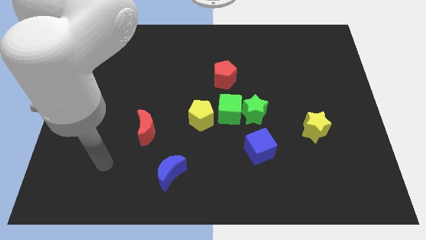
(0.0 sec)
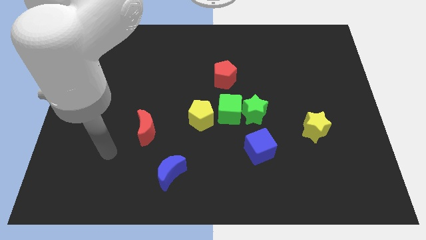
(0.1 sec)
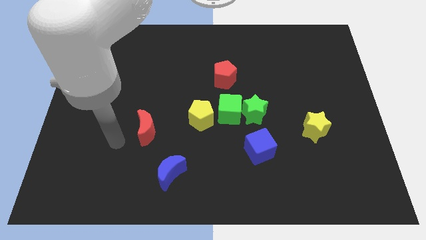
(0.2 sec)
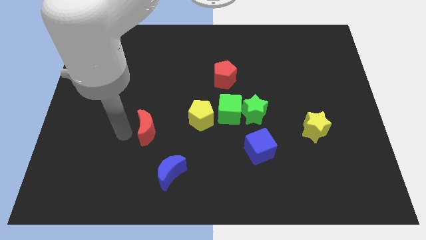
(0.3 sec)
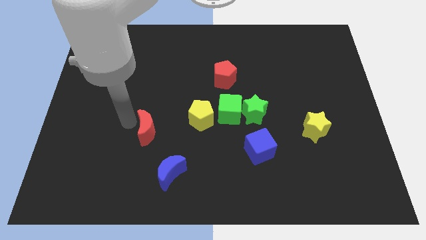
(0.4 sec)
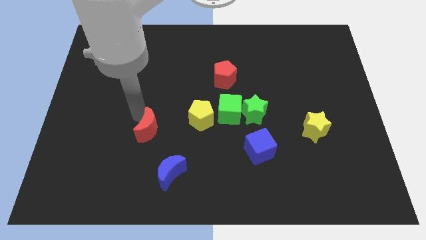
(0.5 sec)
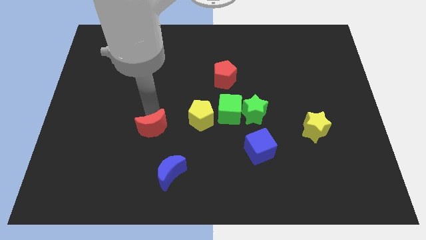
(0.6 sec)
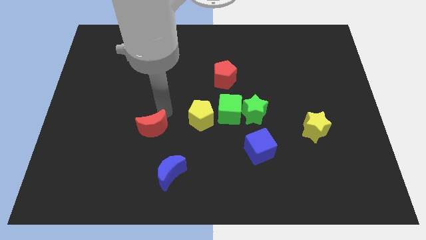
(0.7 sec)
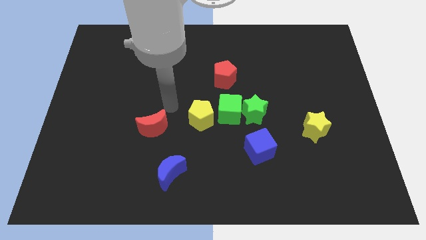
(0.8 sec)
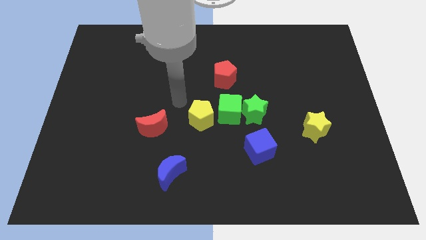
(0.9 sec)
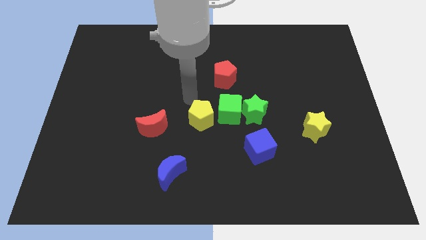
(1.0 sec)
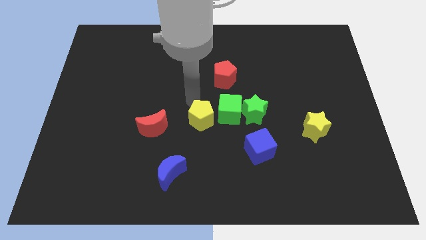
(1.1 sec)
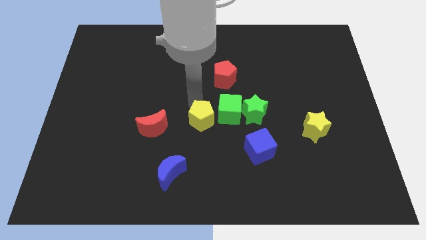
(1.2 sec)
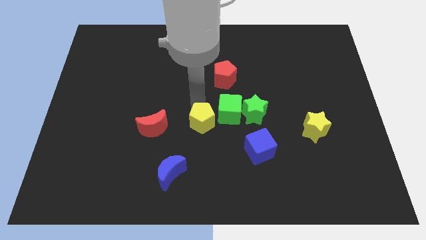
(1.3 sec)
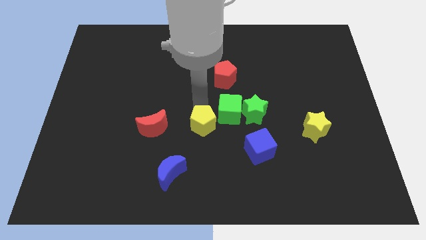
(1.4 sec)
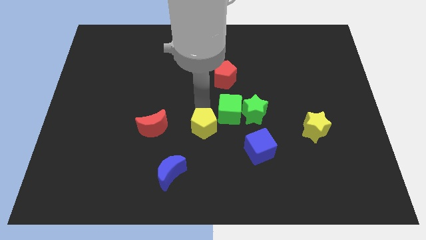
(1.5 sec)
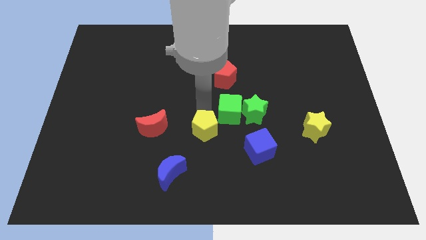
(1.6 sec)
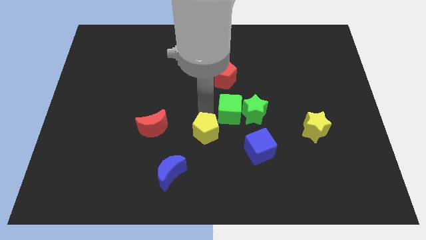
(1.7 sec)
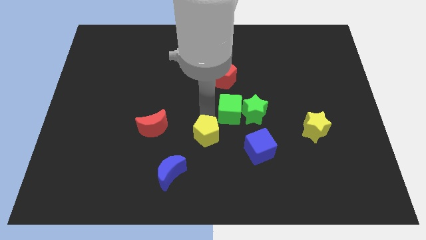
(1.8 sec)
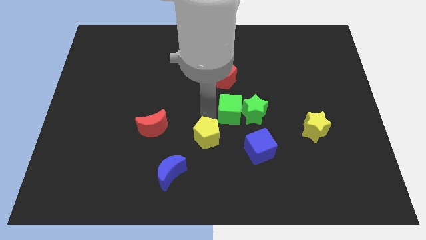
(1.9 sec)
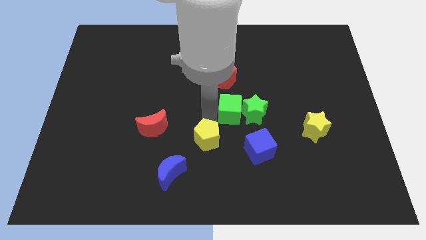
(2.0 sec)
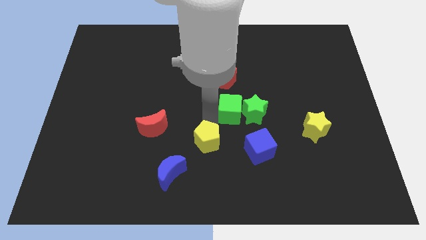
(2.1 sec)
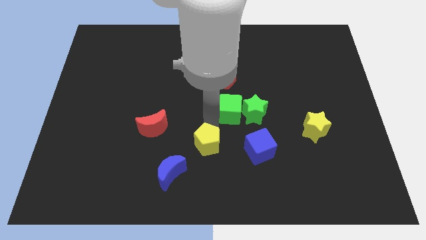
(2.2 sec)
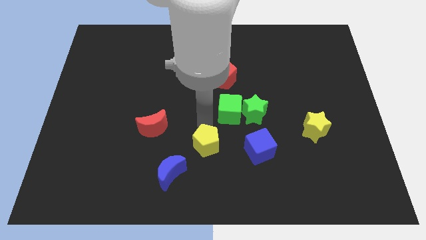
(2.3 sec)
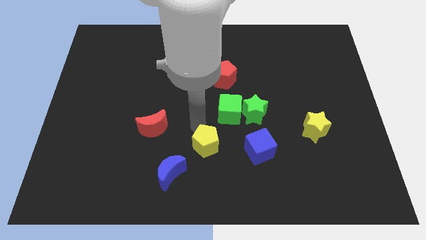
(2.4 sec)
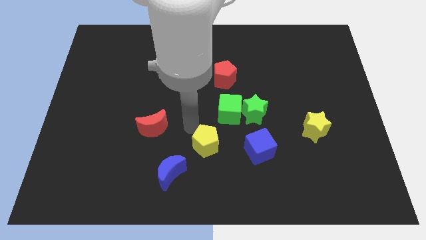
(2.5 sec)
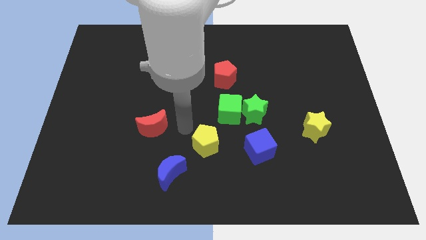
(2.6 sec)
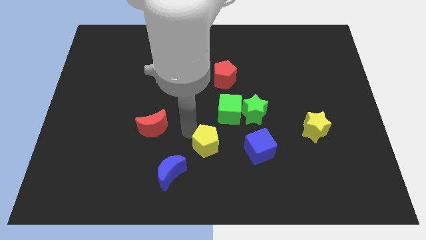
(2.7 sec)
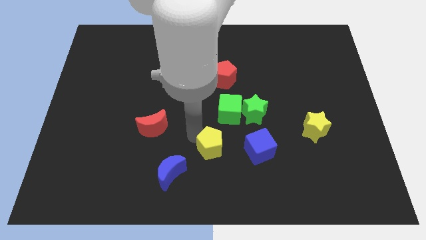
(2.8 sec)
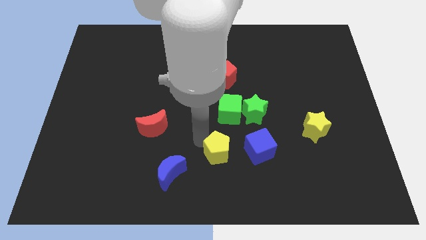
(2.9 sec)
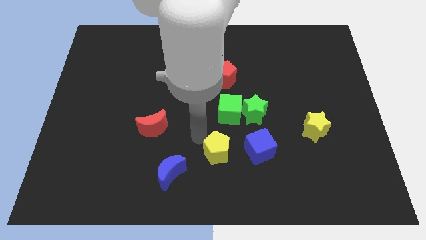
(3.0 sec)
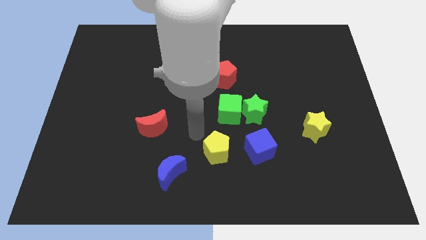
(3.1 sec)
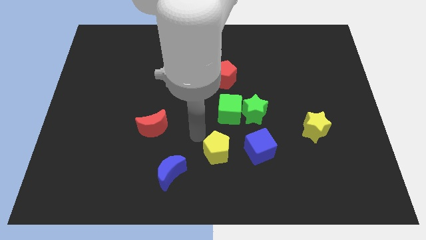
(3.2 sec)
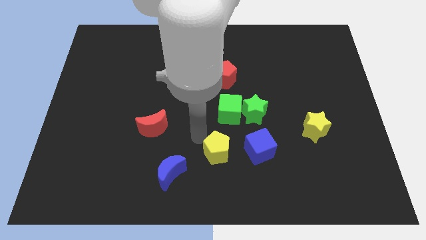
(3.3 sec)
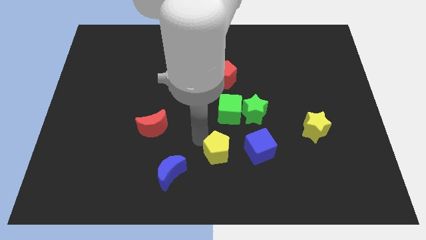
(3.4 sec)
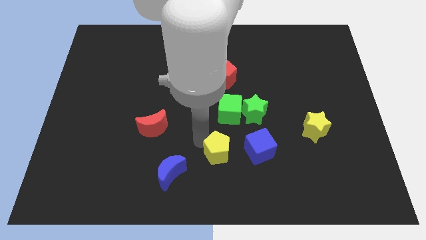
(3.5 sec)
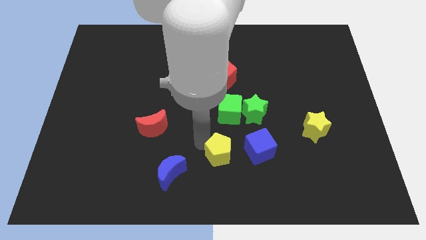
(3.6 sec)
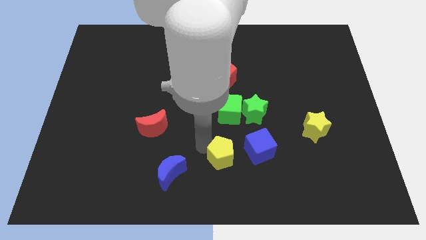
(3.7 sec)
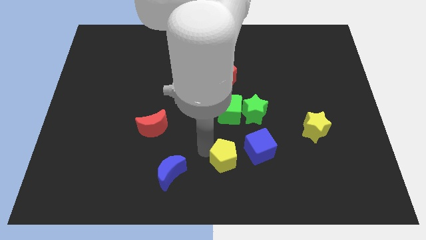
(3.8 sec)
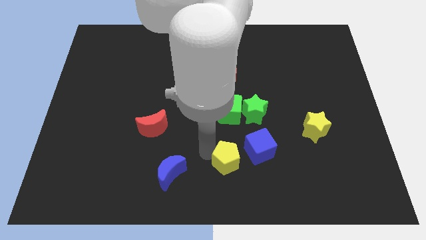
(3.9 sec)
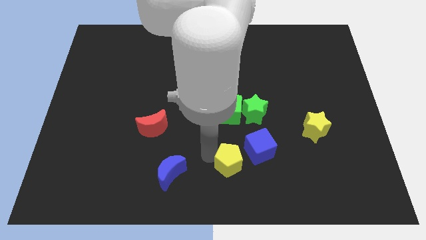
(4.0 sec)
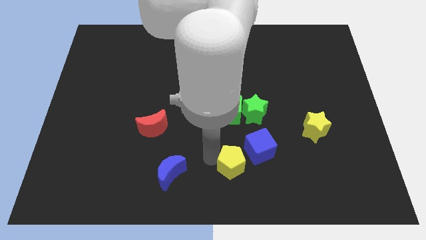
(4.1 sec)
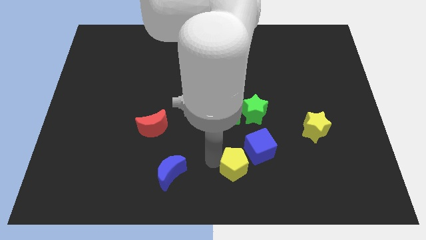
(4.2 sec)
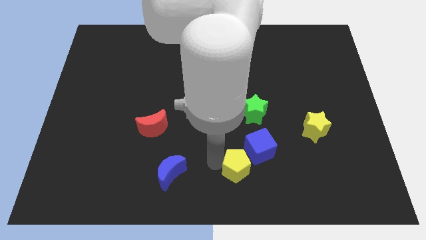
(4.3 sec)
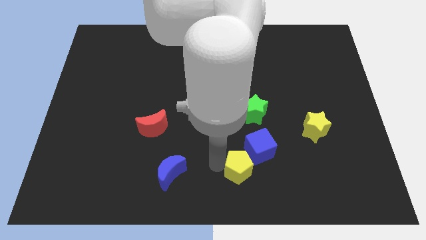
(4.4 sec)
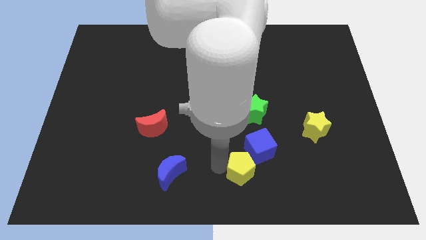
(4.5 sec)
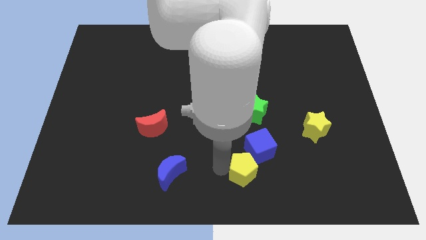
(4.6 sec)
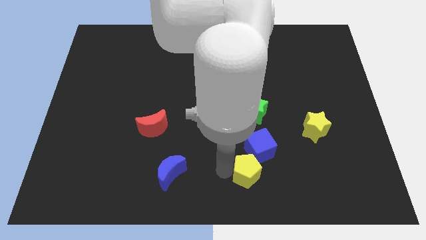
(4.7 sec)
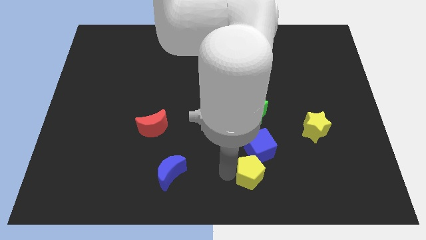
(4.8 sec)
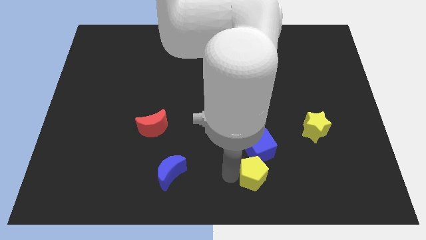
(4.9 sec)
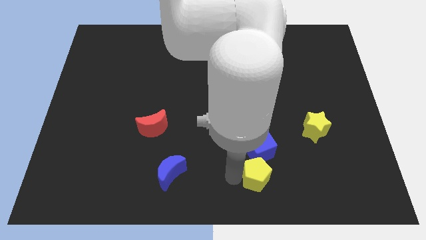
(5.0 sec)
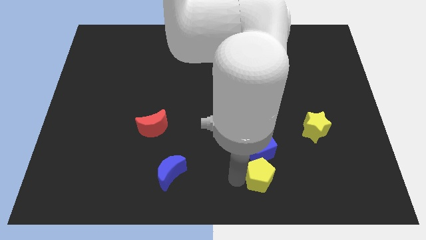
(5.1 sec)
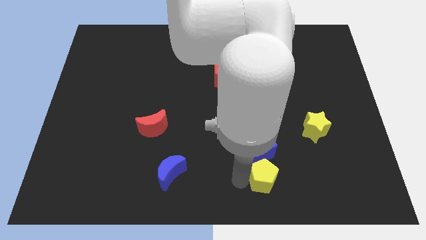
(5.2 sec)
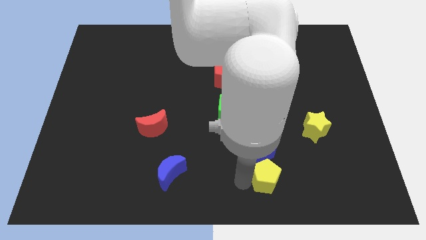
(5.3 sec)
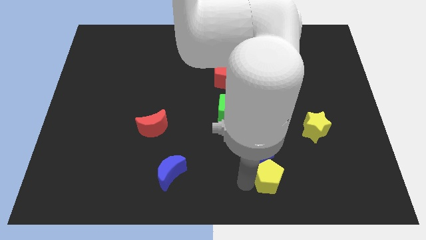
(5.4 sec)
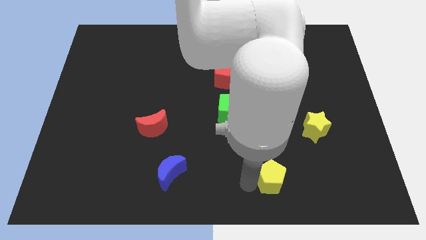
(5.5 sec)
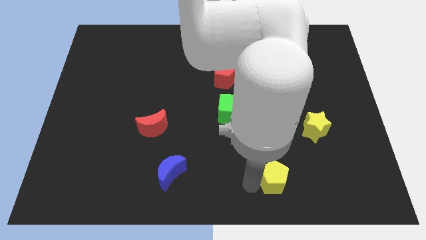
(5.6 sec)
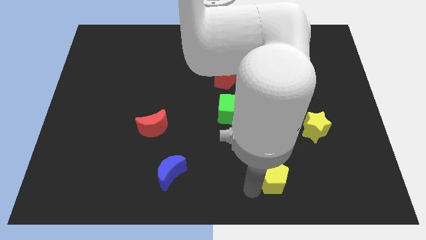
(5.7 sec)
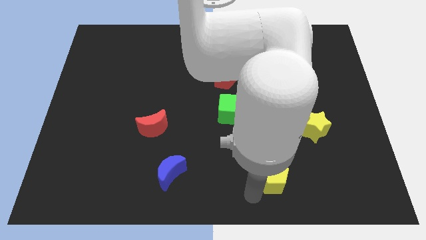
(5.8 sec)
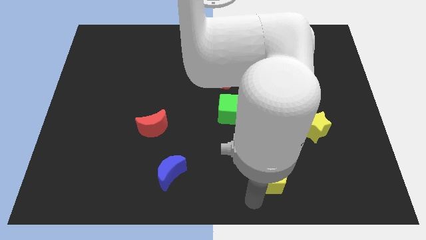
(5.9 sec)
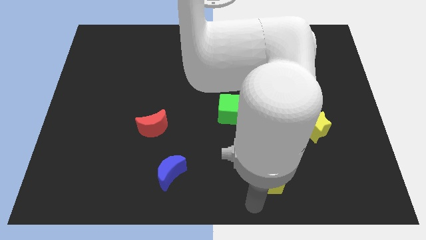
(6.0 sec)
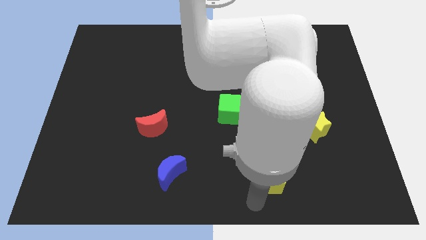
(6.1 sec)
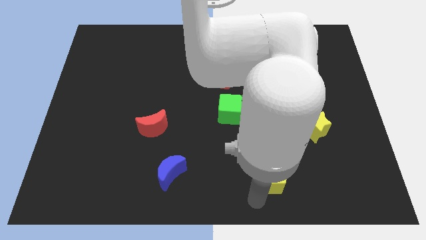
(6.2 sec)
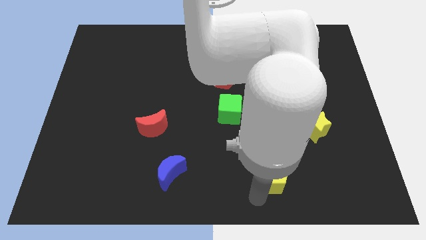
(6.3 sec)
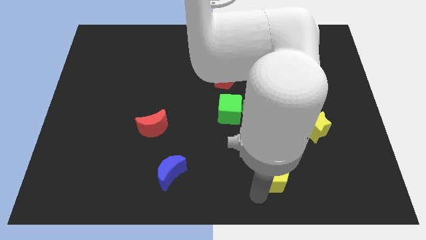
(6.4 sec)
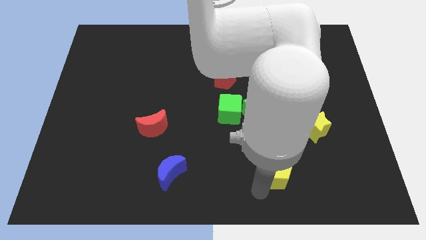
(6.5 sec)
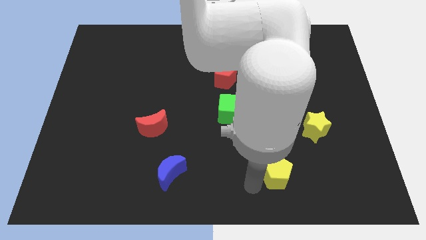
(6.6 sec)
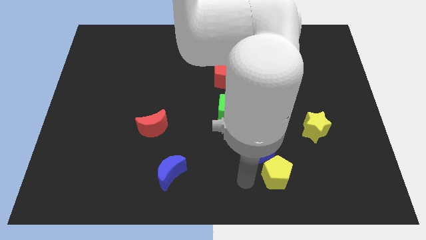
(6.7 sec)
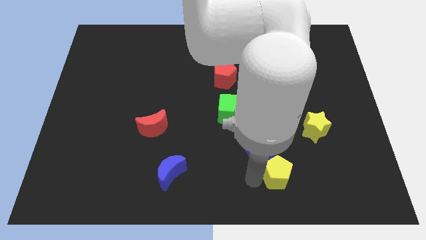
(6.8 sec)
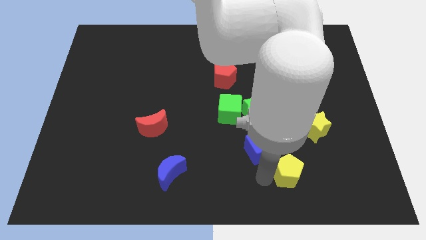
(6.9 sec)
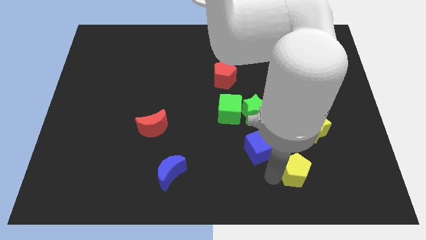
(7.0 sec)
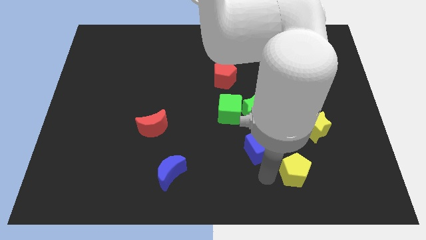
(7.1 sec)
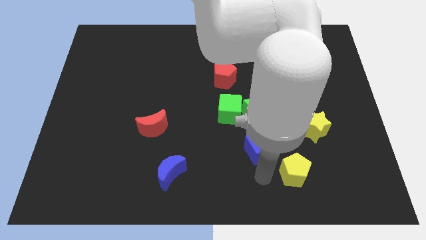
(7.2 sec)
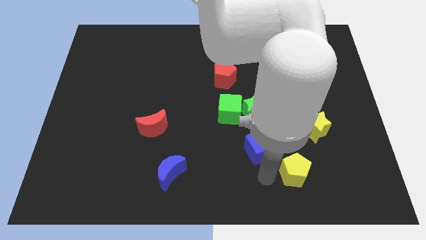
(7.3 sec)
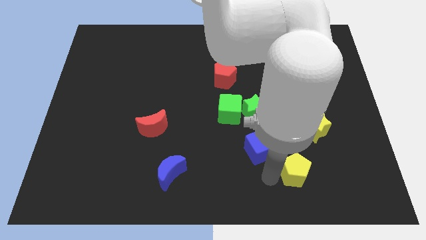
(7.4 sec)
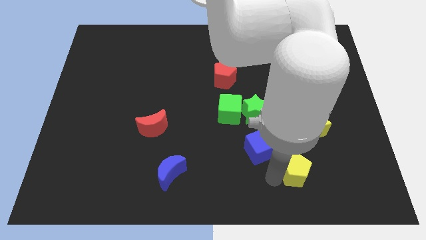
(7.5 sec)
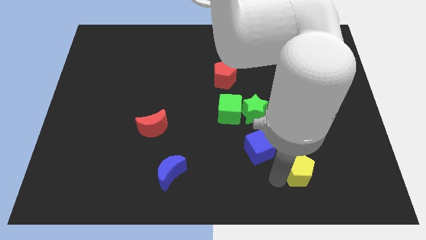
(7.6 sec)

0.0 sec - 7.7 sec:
slide the yellow pentagon to the bottom of the yellow star
